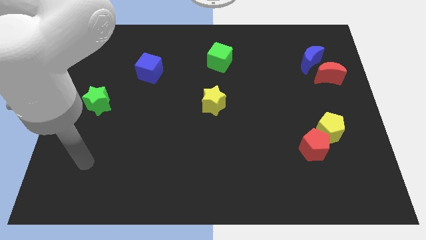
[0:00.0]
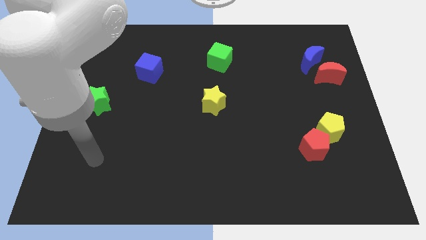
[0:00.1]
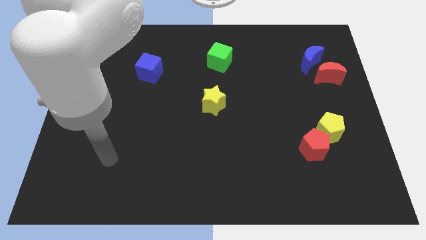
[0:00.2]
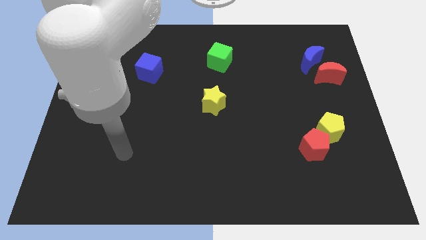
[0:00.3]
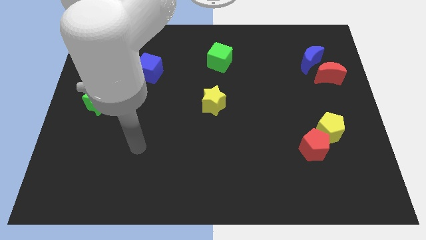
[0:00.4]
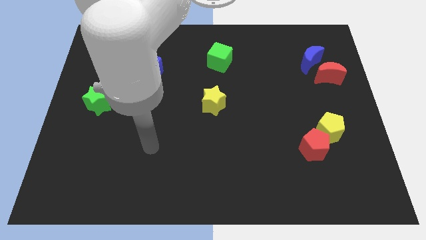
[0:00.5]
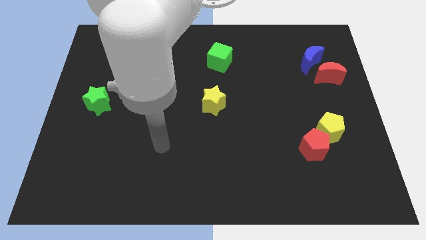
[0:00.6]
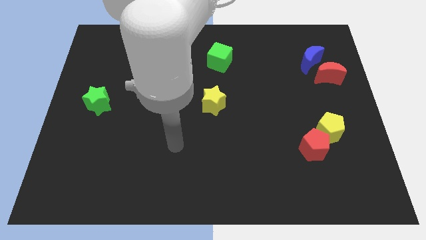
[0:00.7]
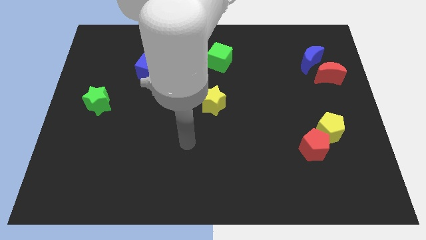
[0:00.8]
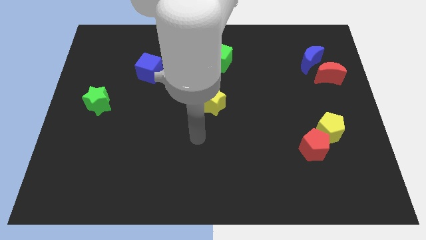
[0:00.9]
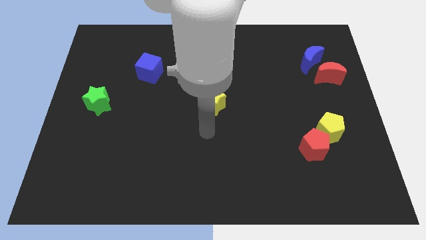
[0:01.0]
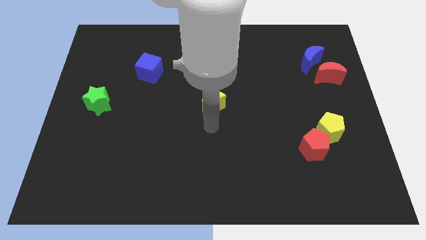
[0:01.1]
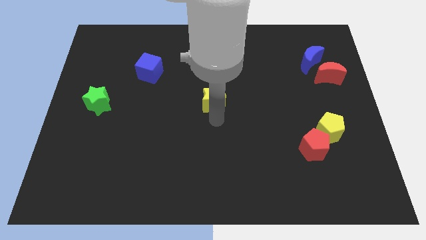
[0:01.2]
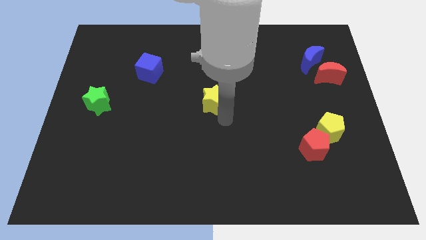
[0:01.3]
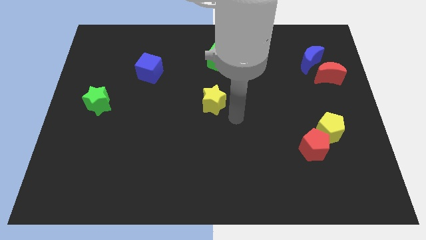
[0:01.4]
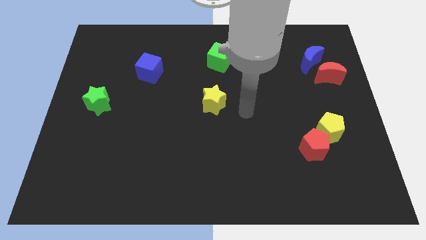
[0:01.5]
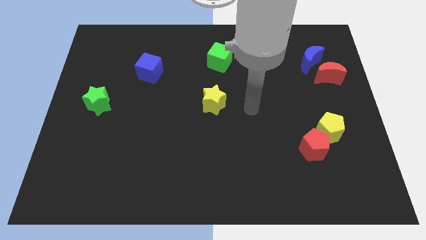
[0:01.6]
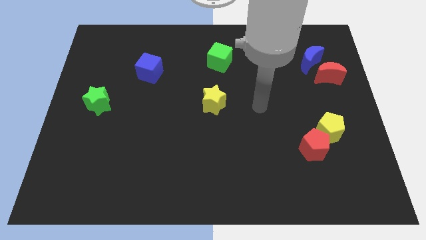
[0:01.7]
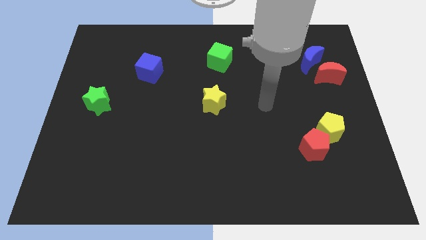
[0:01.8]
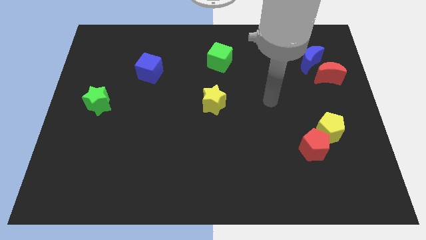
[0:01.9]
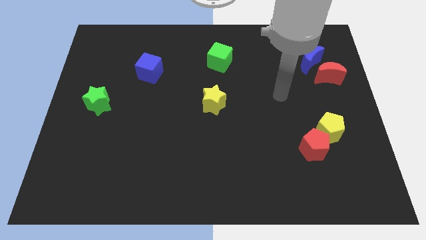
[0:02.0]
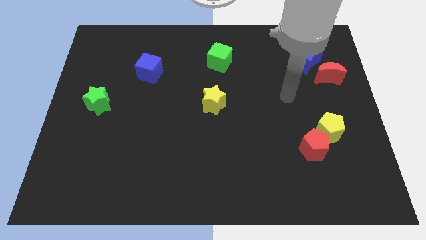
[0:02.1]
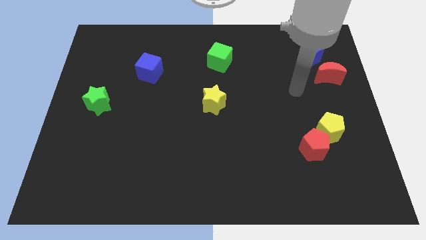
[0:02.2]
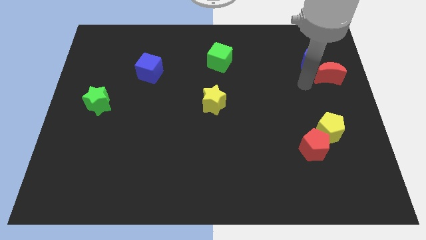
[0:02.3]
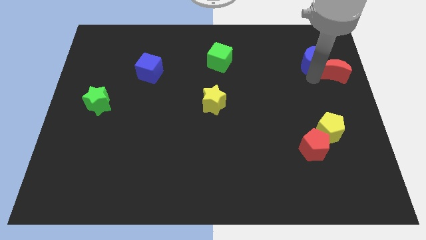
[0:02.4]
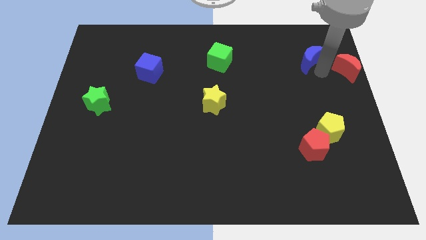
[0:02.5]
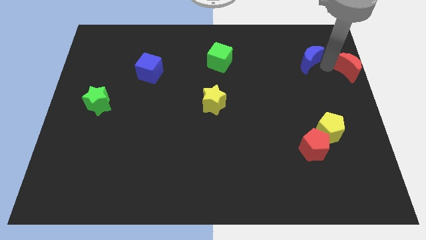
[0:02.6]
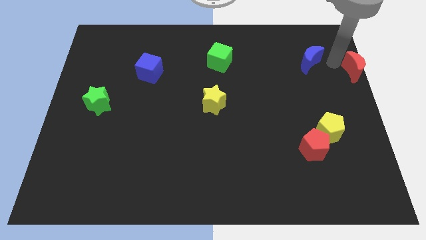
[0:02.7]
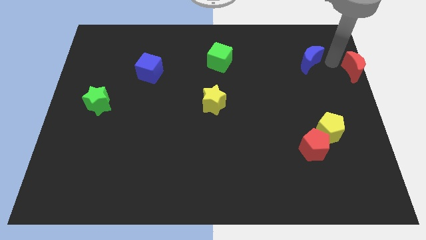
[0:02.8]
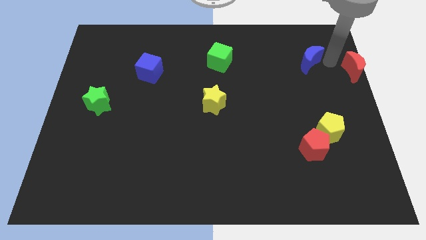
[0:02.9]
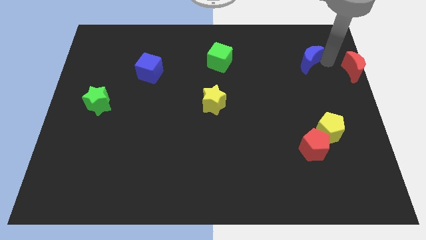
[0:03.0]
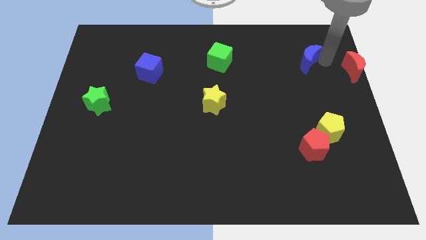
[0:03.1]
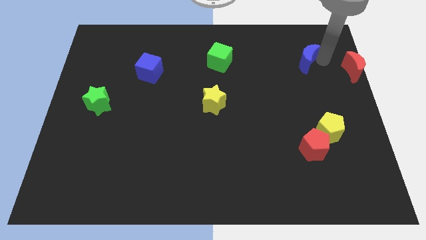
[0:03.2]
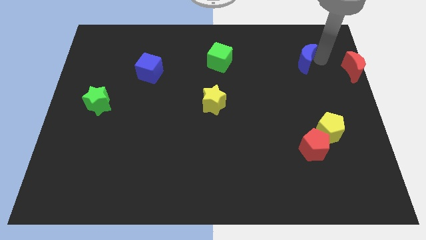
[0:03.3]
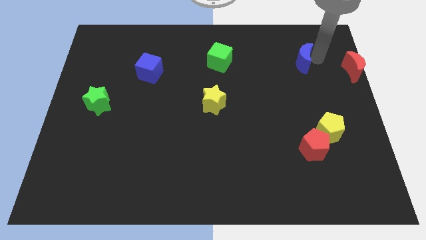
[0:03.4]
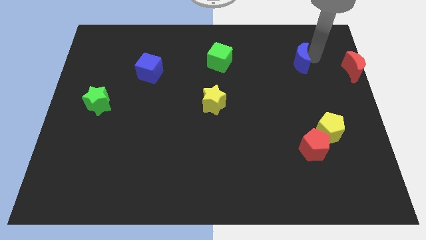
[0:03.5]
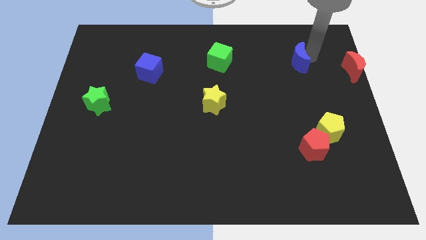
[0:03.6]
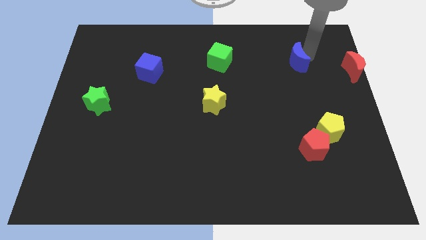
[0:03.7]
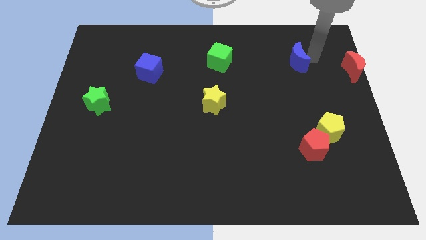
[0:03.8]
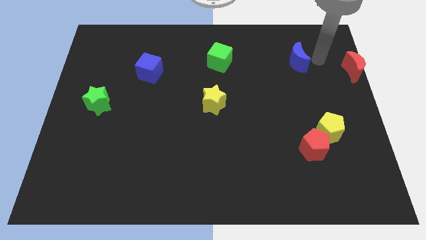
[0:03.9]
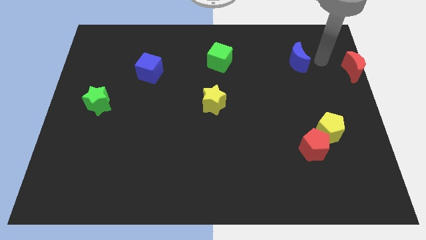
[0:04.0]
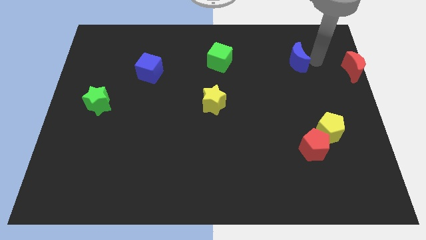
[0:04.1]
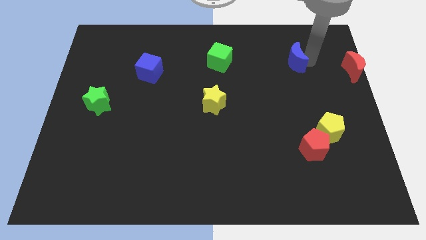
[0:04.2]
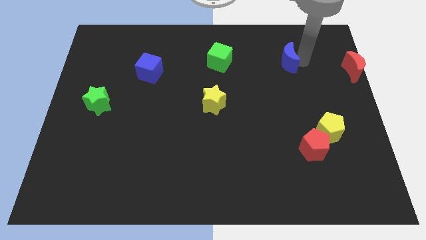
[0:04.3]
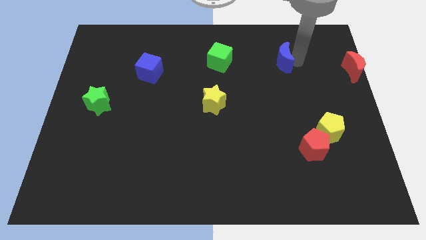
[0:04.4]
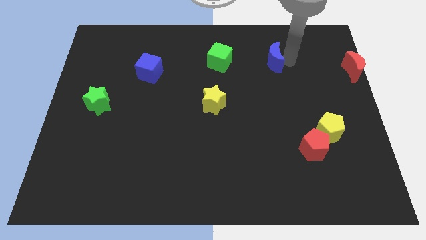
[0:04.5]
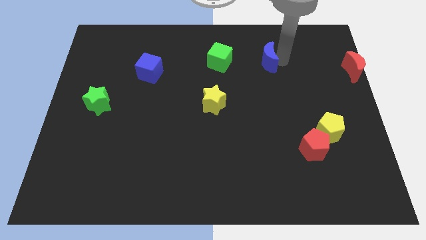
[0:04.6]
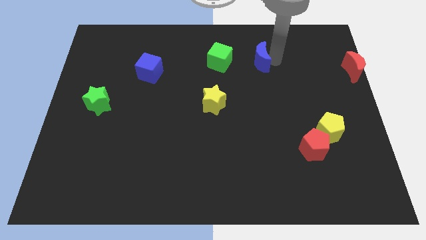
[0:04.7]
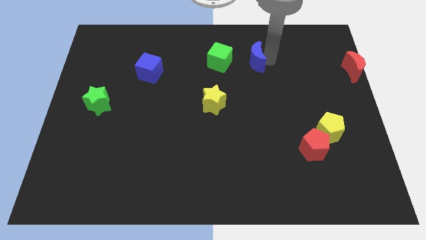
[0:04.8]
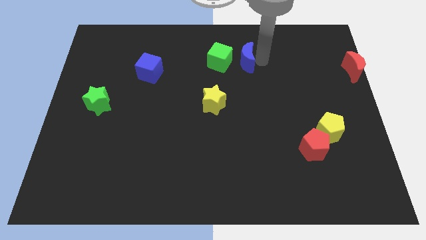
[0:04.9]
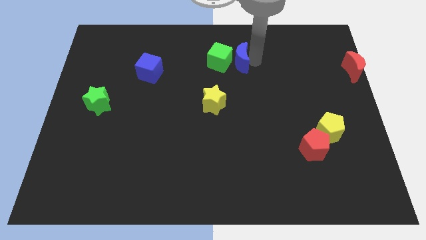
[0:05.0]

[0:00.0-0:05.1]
push the blue moon towards the green cube

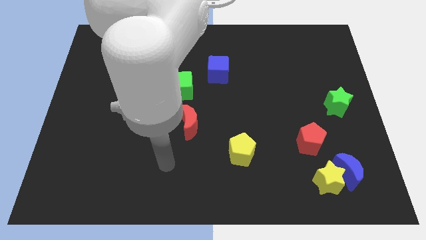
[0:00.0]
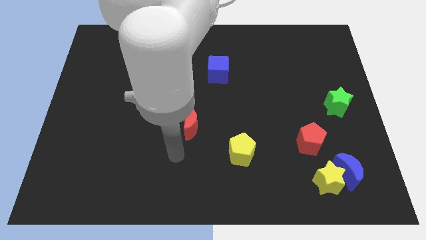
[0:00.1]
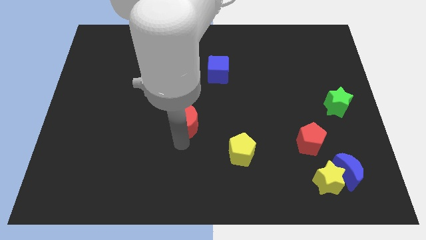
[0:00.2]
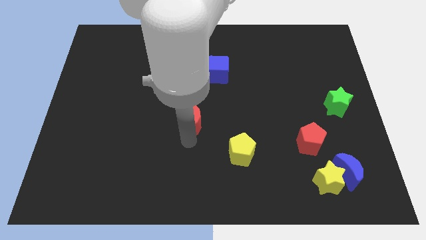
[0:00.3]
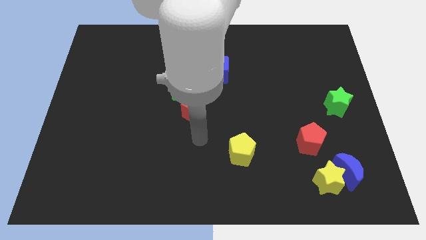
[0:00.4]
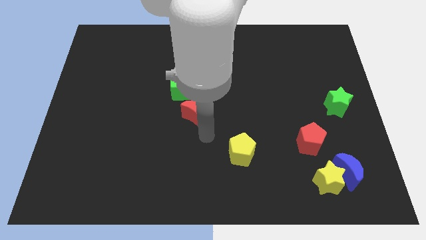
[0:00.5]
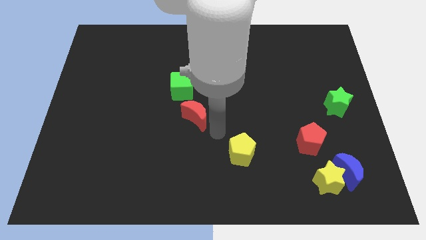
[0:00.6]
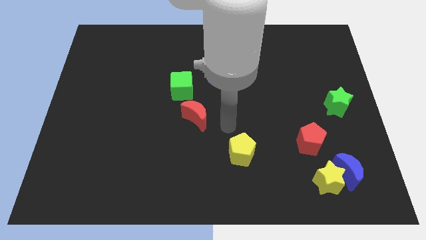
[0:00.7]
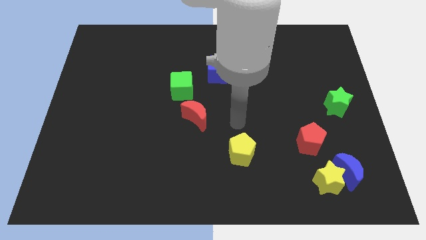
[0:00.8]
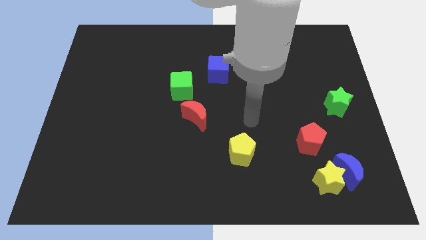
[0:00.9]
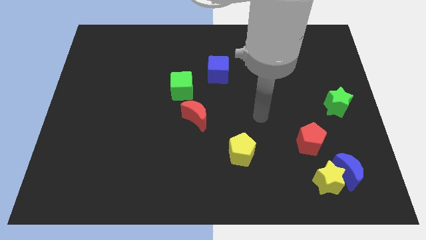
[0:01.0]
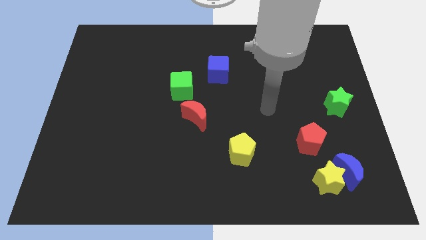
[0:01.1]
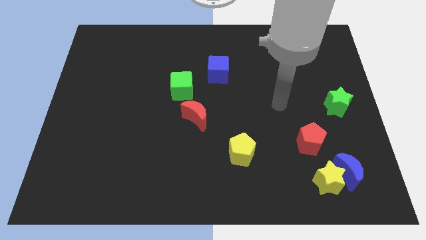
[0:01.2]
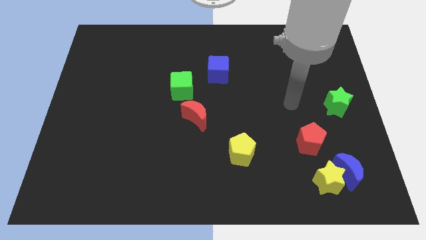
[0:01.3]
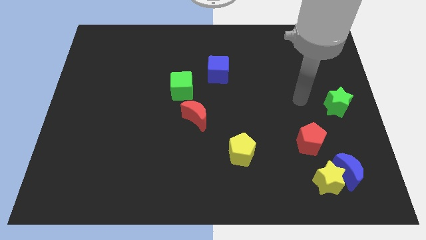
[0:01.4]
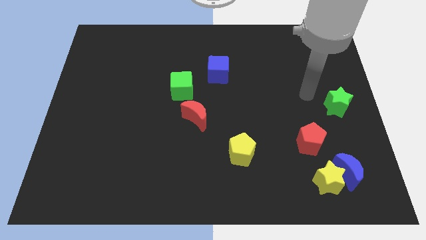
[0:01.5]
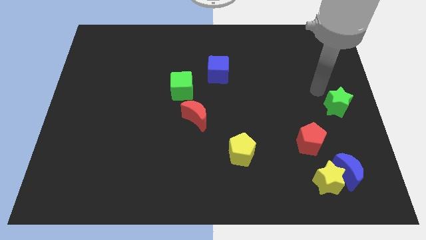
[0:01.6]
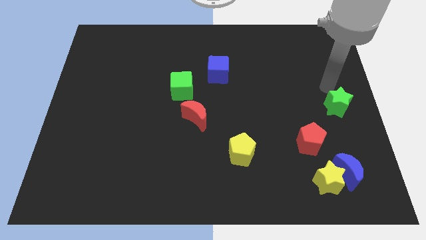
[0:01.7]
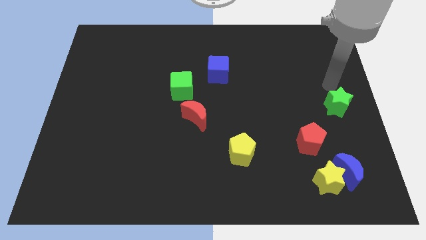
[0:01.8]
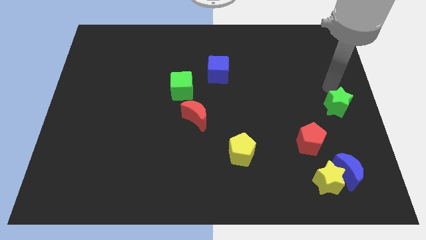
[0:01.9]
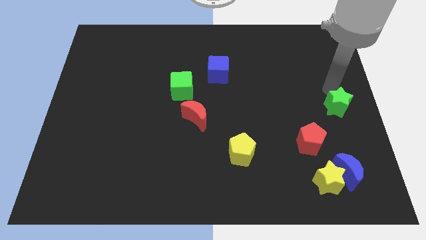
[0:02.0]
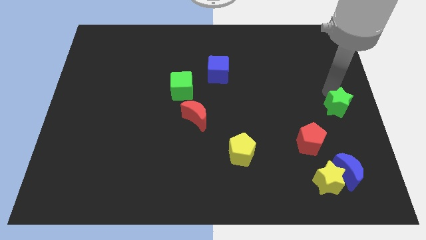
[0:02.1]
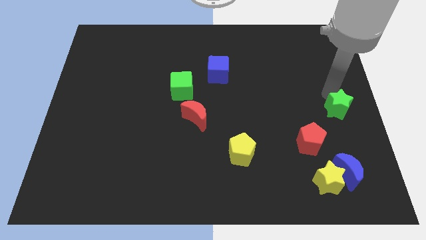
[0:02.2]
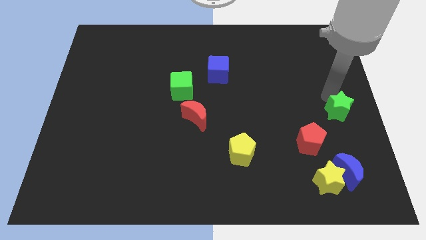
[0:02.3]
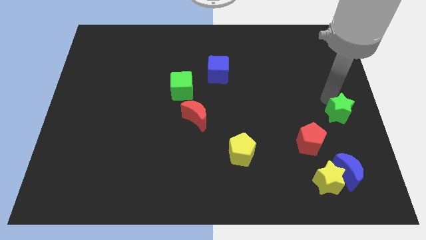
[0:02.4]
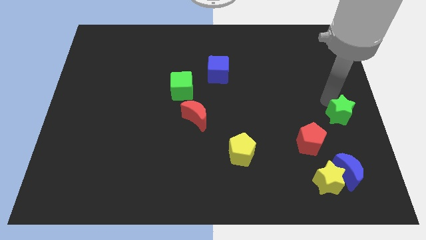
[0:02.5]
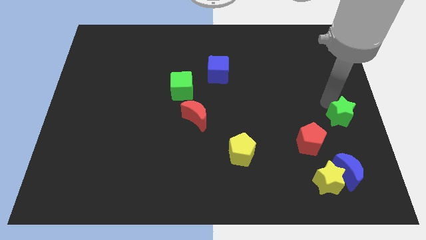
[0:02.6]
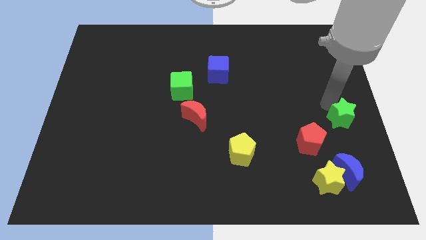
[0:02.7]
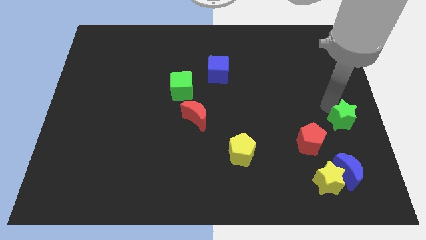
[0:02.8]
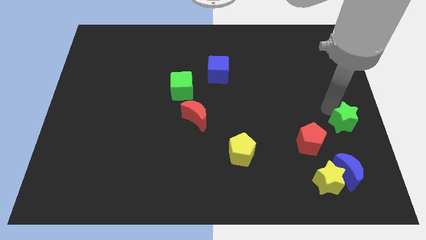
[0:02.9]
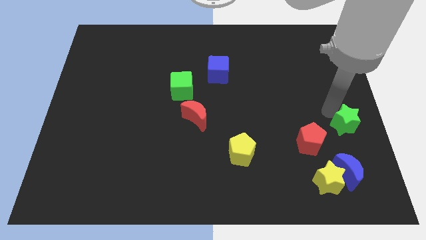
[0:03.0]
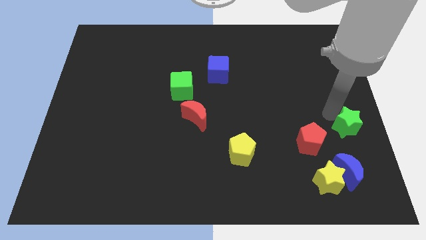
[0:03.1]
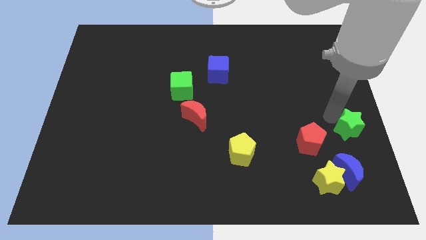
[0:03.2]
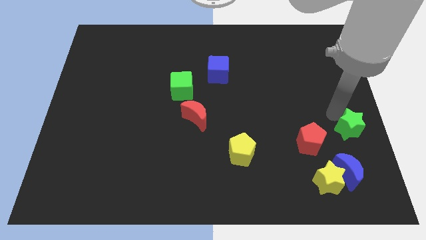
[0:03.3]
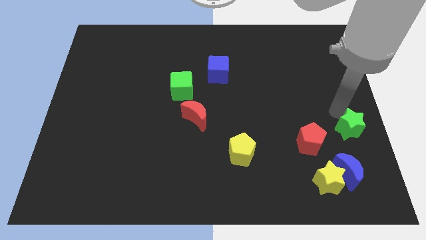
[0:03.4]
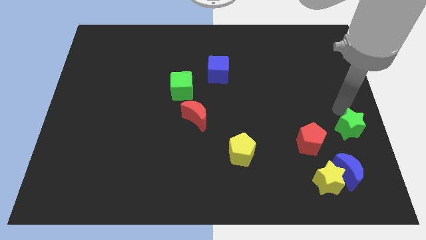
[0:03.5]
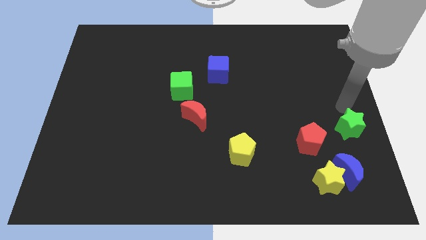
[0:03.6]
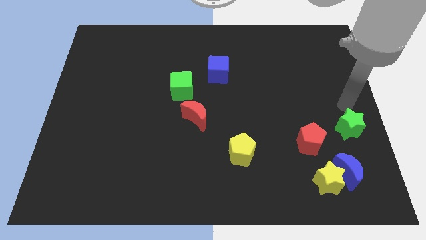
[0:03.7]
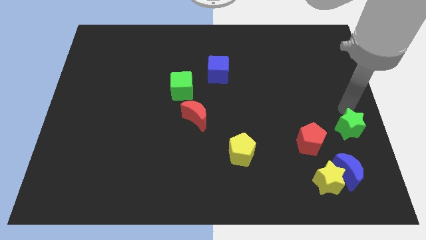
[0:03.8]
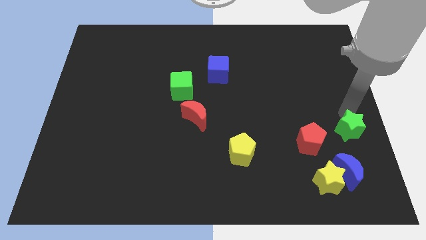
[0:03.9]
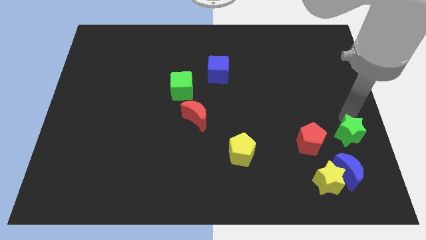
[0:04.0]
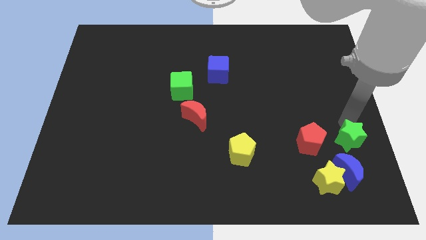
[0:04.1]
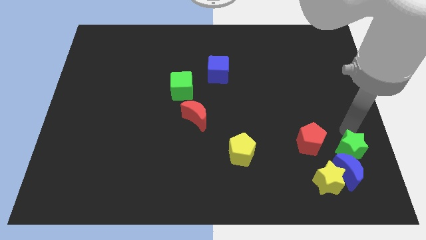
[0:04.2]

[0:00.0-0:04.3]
slide the green star towards the blue moon
